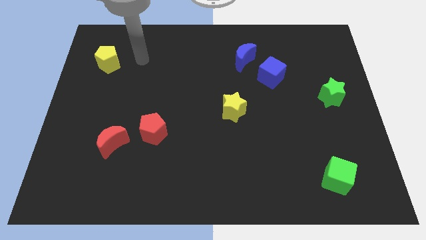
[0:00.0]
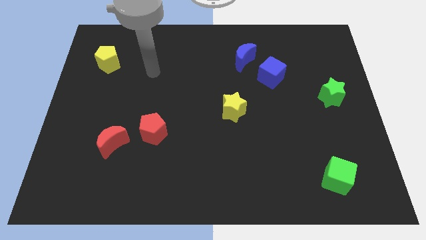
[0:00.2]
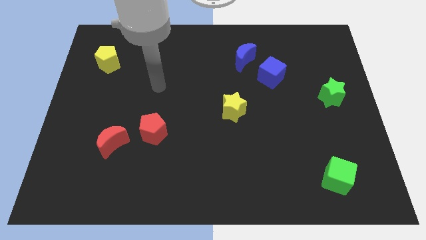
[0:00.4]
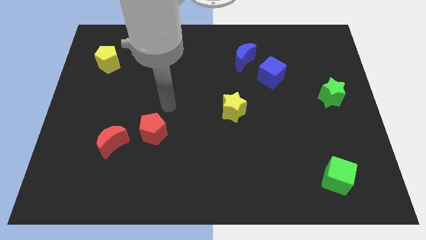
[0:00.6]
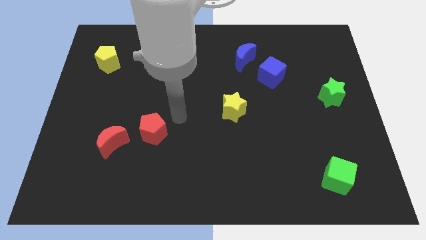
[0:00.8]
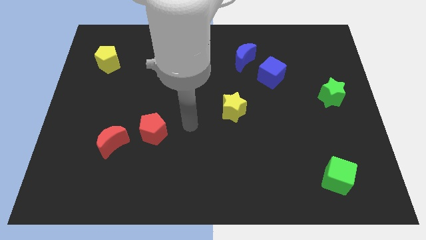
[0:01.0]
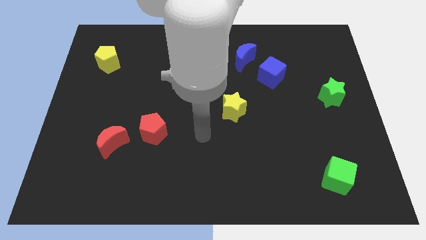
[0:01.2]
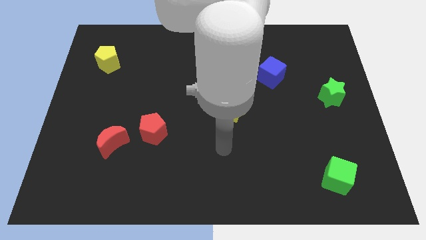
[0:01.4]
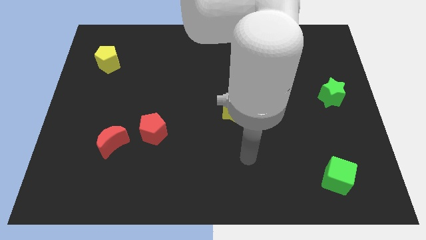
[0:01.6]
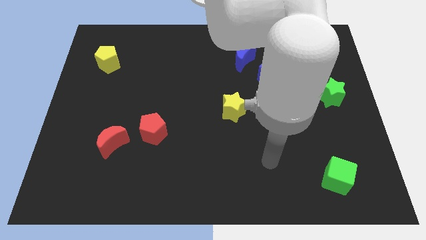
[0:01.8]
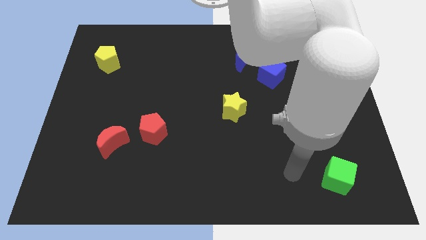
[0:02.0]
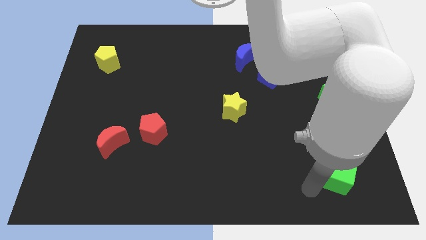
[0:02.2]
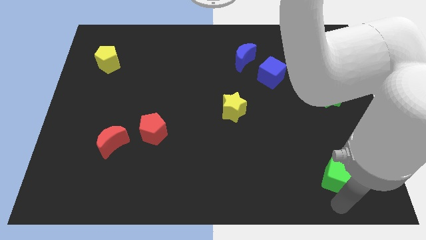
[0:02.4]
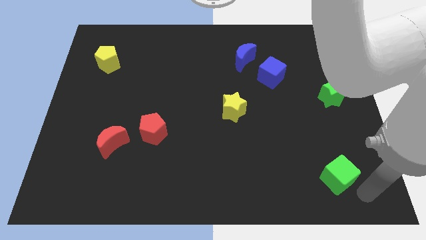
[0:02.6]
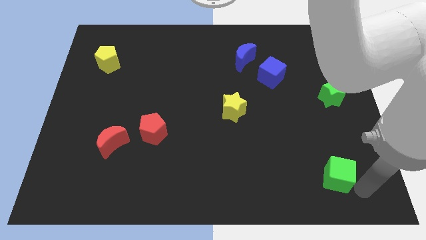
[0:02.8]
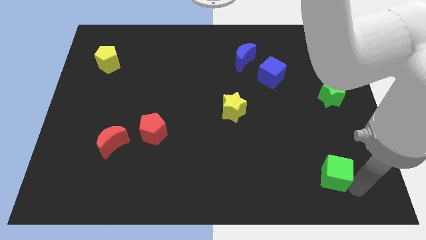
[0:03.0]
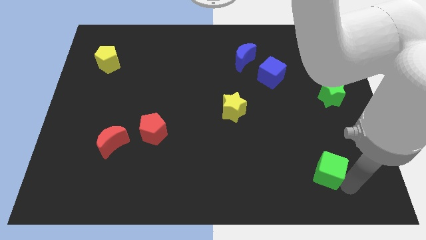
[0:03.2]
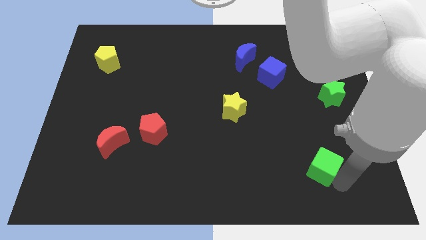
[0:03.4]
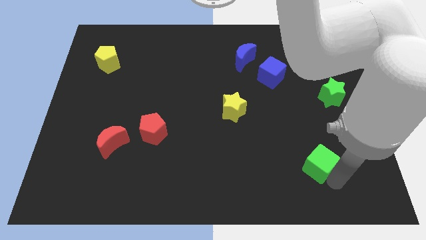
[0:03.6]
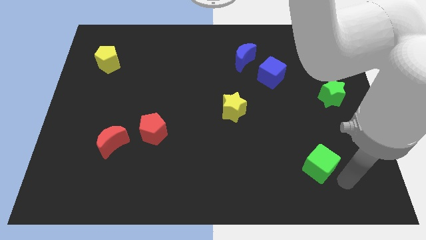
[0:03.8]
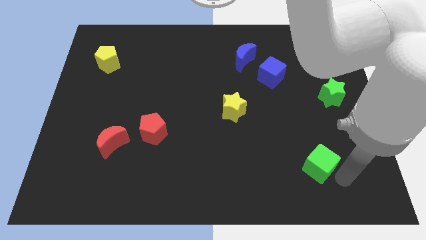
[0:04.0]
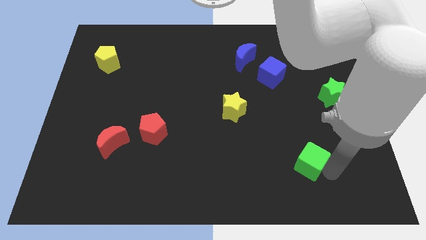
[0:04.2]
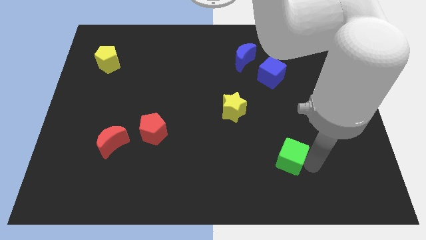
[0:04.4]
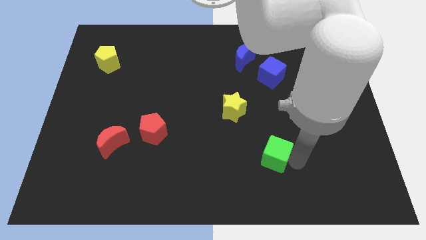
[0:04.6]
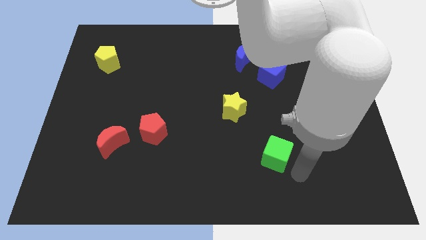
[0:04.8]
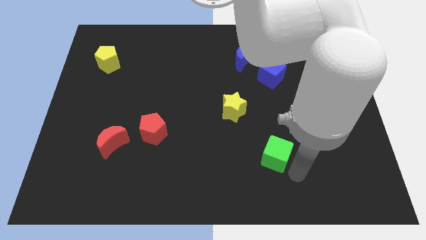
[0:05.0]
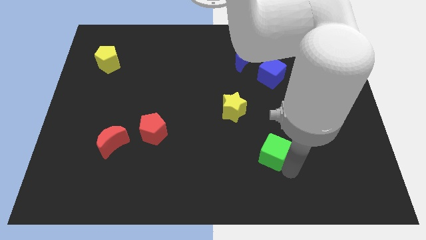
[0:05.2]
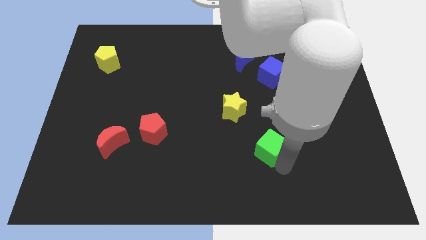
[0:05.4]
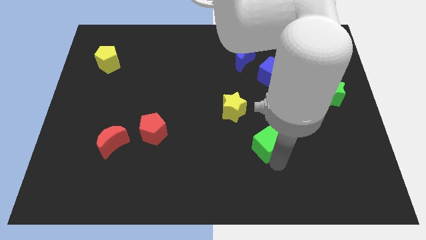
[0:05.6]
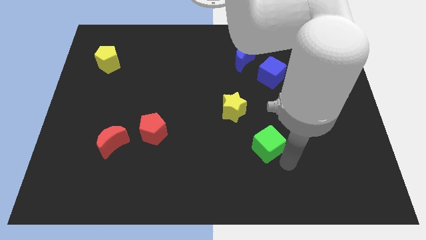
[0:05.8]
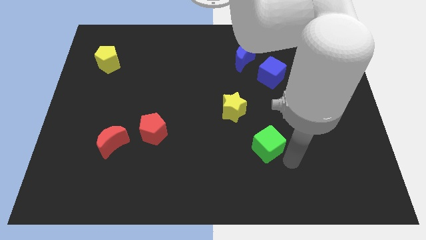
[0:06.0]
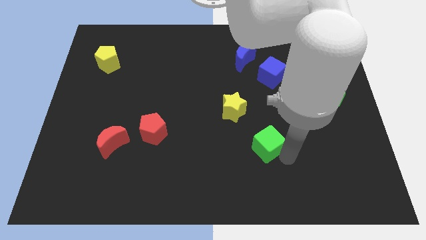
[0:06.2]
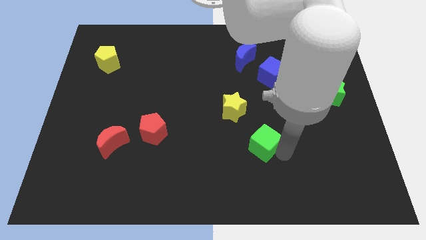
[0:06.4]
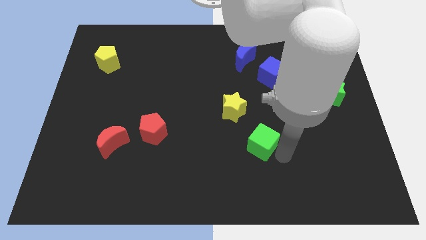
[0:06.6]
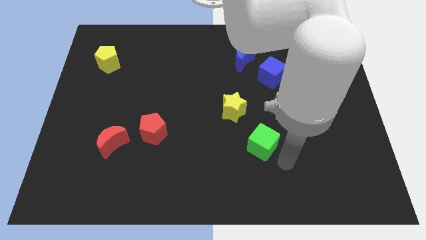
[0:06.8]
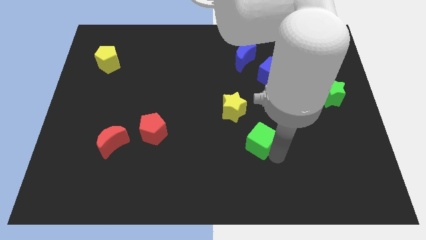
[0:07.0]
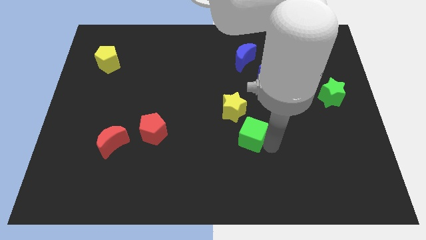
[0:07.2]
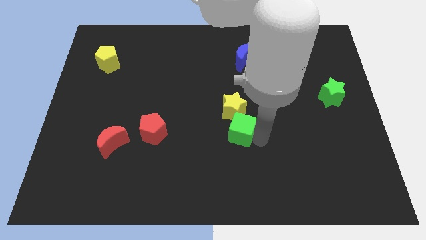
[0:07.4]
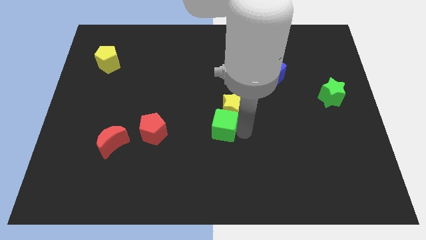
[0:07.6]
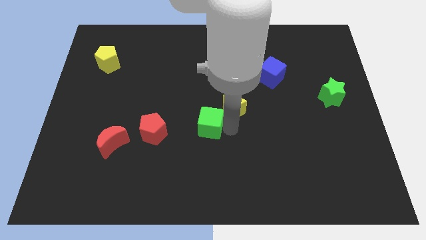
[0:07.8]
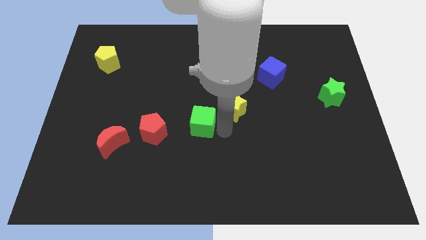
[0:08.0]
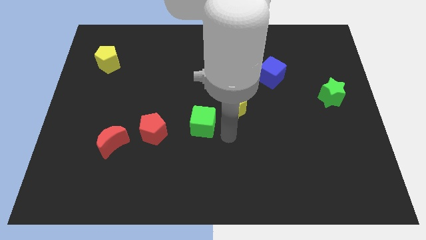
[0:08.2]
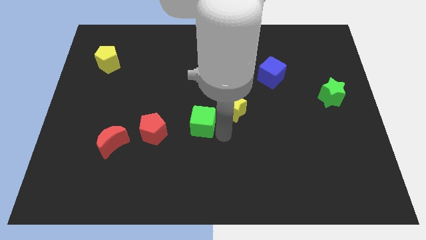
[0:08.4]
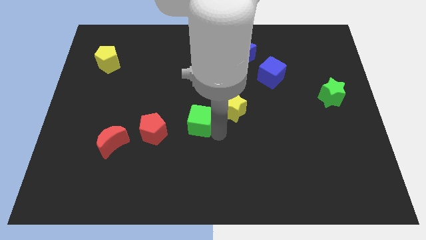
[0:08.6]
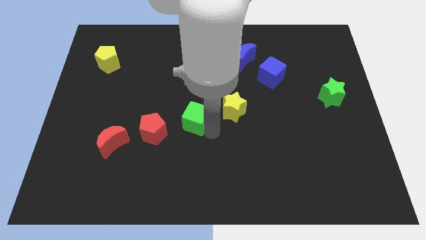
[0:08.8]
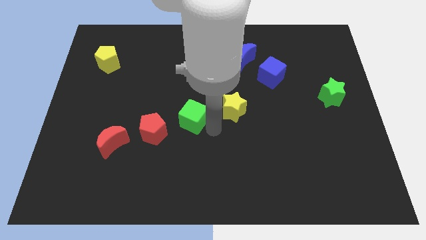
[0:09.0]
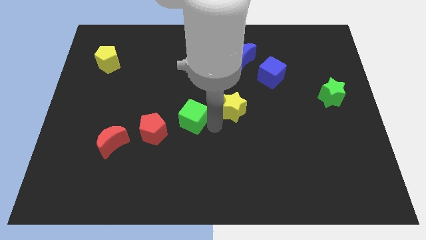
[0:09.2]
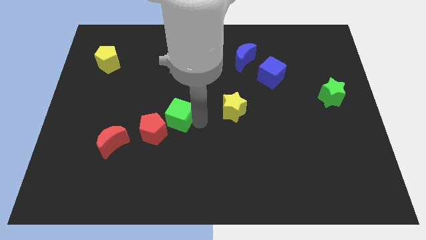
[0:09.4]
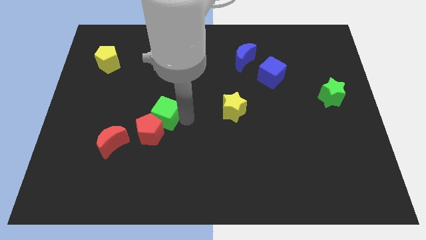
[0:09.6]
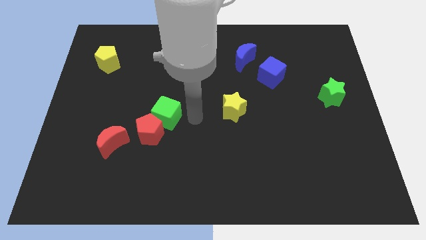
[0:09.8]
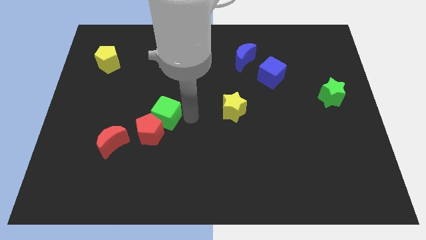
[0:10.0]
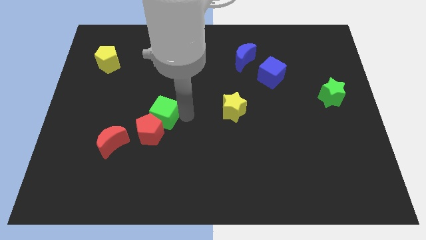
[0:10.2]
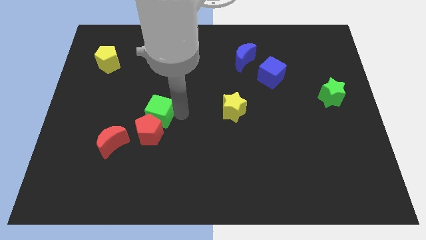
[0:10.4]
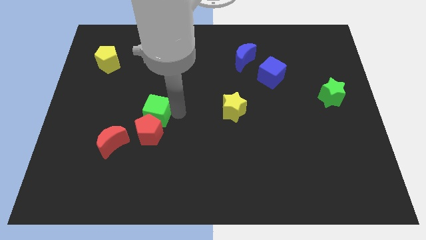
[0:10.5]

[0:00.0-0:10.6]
push the green cube diagonally up and to the left of the red pentagon

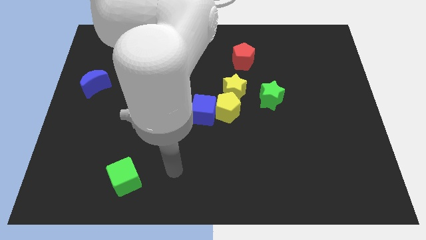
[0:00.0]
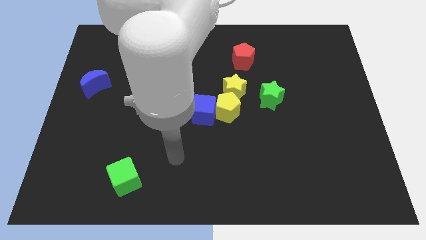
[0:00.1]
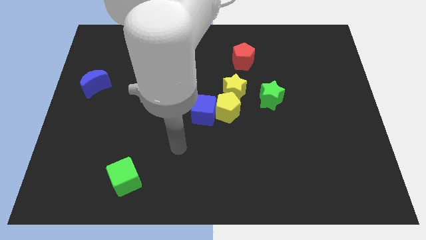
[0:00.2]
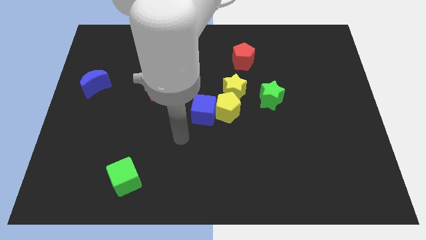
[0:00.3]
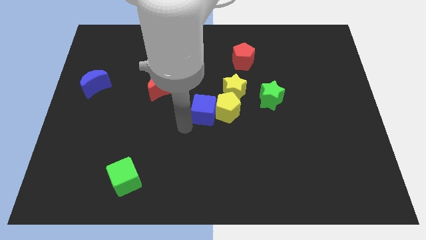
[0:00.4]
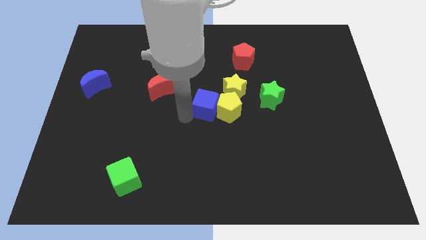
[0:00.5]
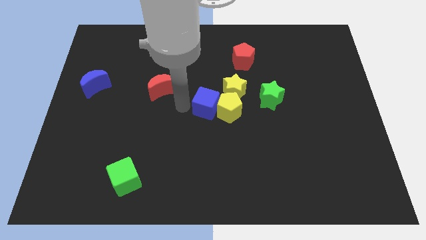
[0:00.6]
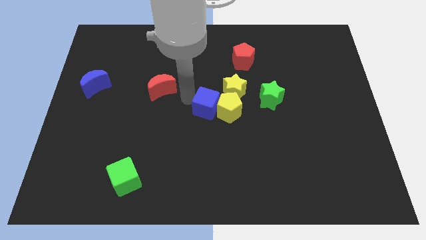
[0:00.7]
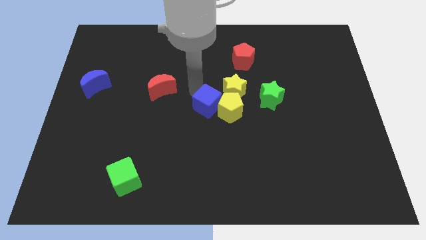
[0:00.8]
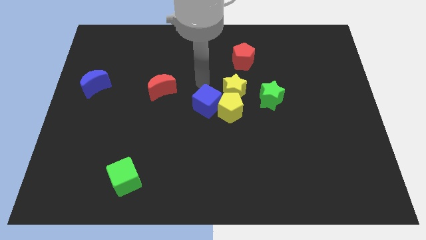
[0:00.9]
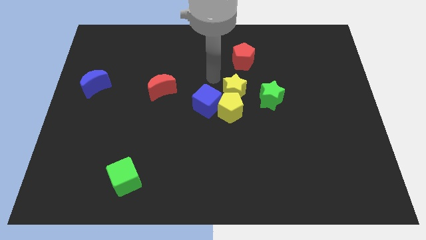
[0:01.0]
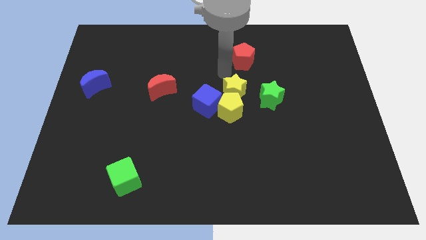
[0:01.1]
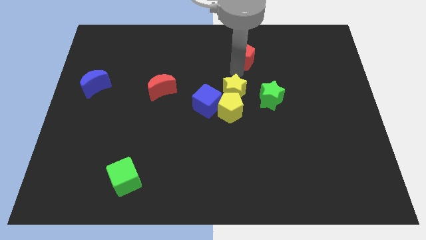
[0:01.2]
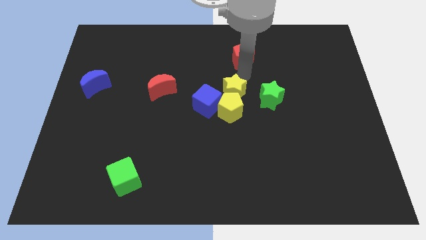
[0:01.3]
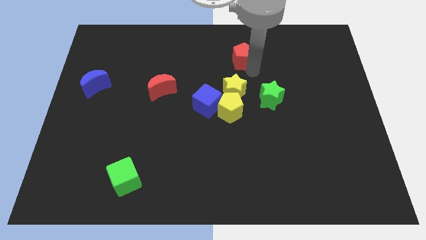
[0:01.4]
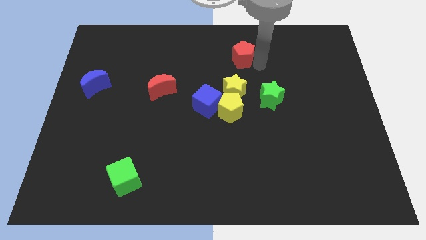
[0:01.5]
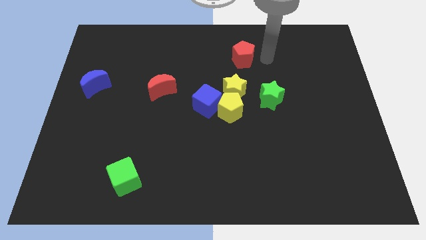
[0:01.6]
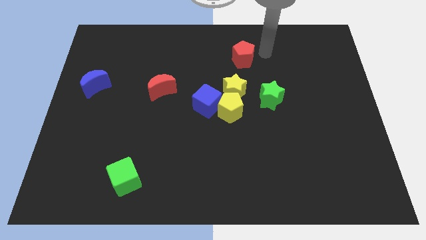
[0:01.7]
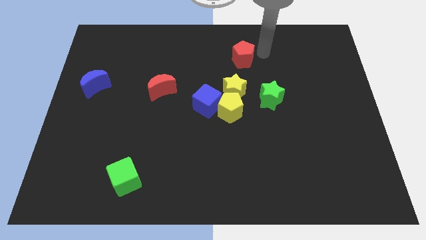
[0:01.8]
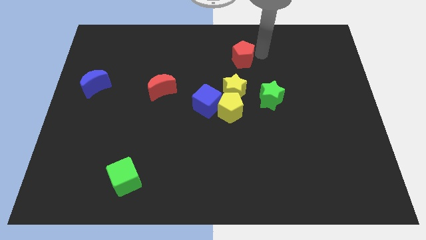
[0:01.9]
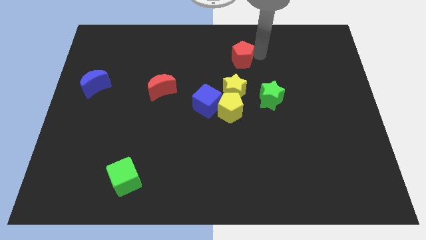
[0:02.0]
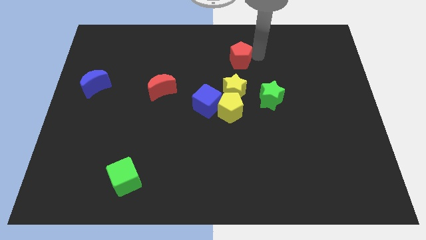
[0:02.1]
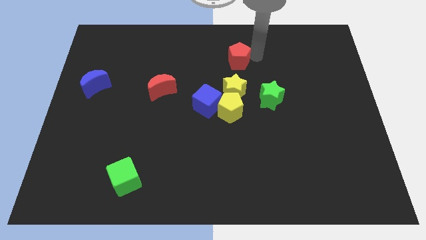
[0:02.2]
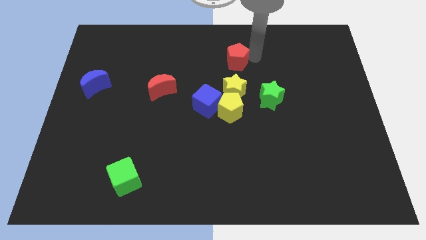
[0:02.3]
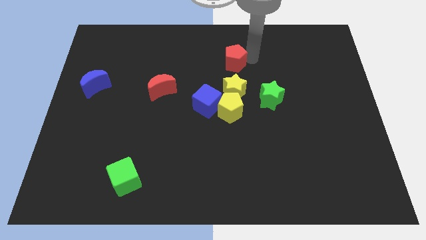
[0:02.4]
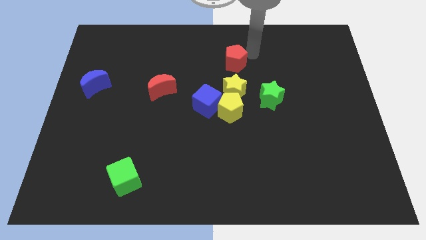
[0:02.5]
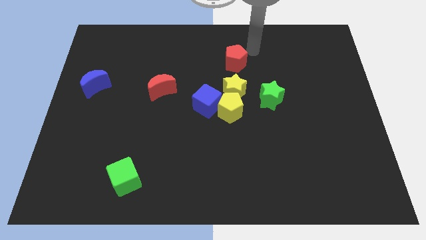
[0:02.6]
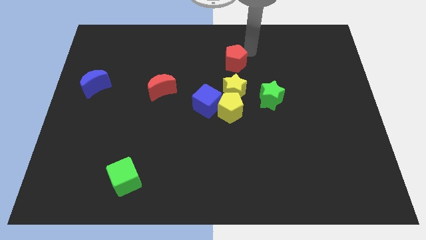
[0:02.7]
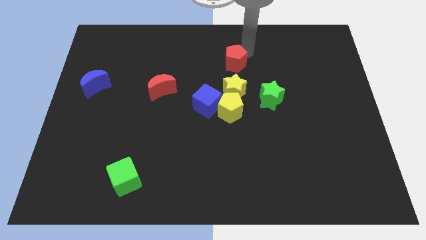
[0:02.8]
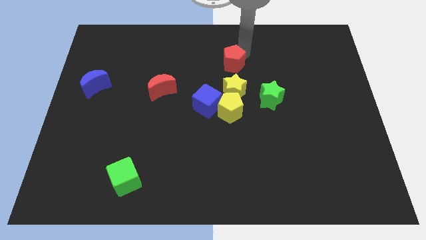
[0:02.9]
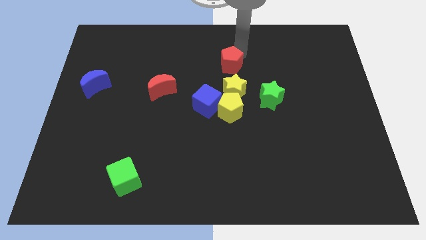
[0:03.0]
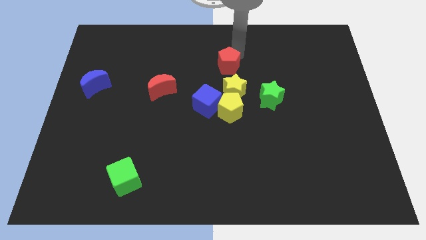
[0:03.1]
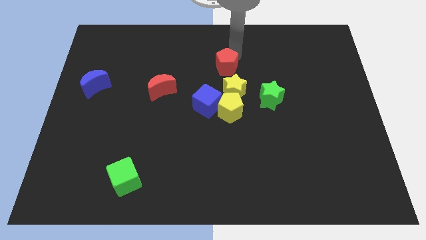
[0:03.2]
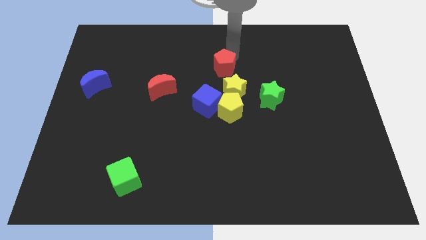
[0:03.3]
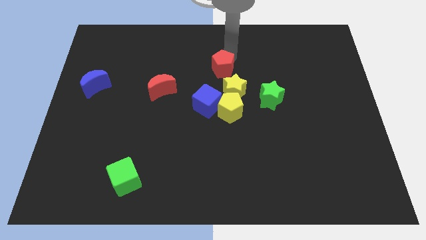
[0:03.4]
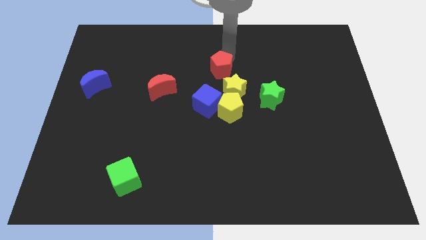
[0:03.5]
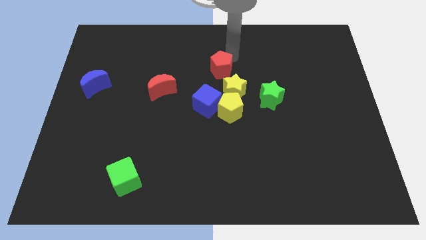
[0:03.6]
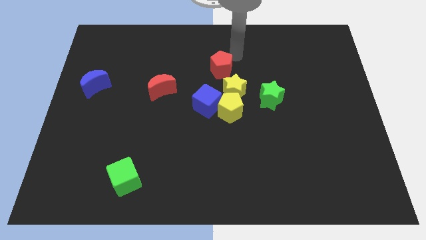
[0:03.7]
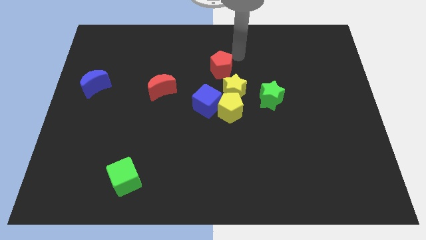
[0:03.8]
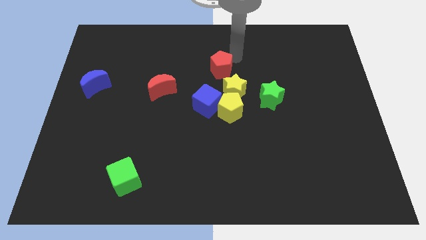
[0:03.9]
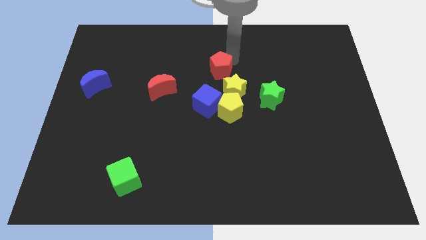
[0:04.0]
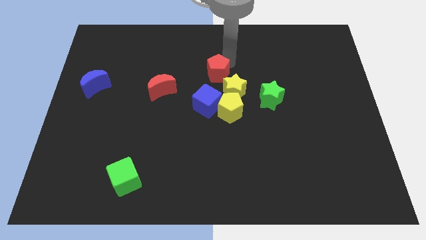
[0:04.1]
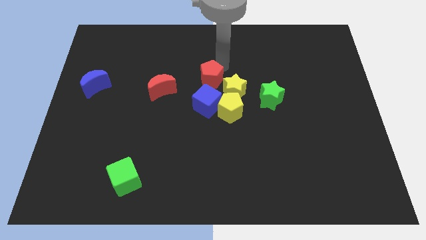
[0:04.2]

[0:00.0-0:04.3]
put the red pentagon diagonally up and to the left of the yellow pentagon
